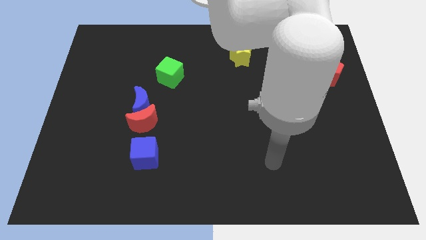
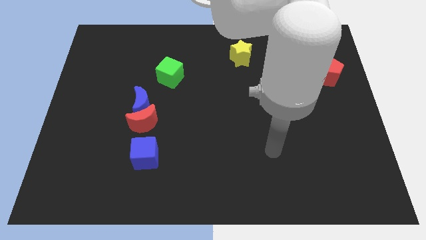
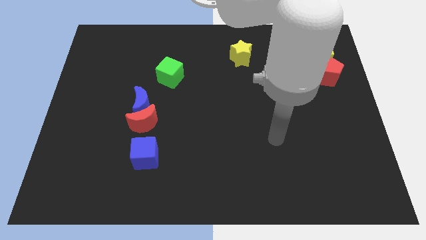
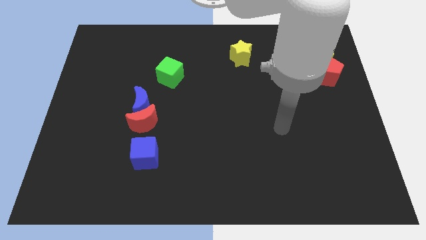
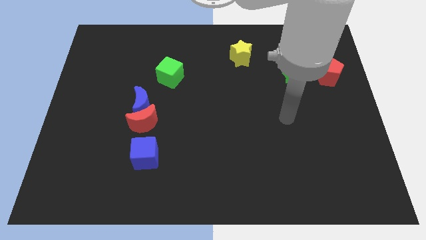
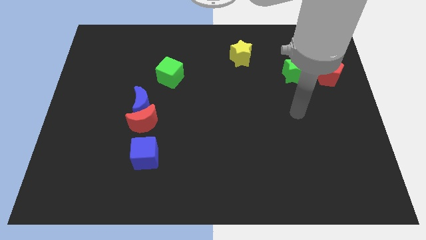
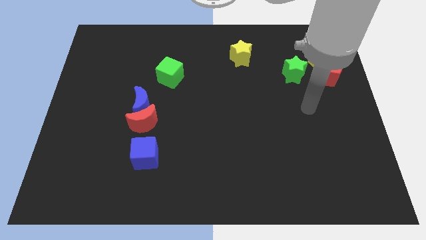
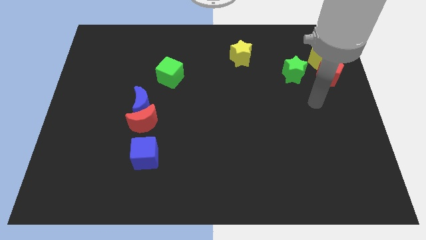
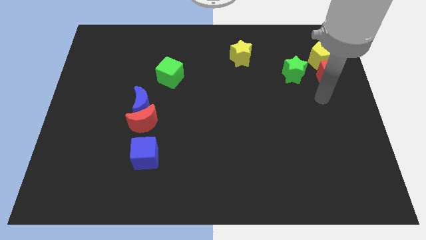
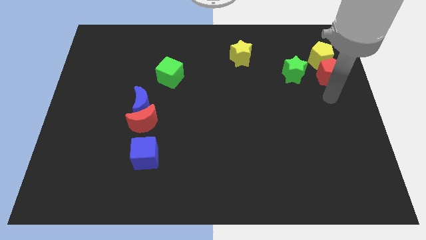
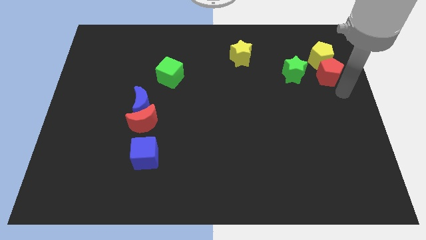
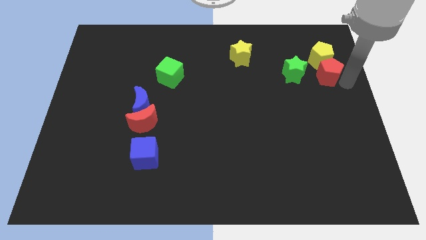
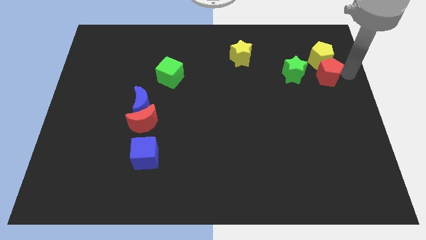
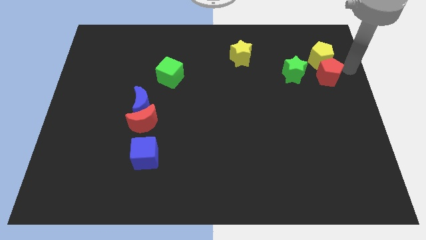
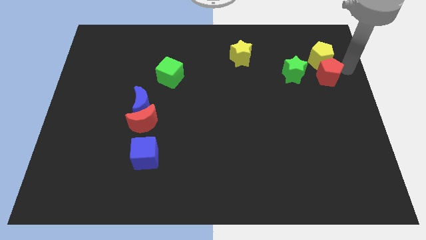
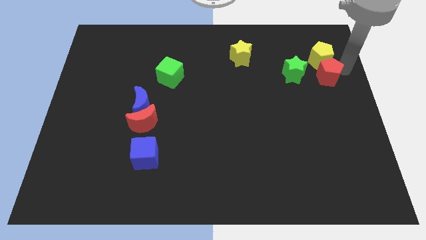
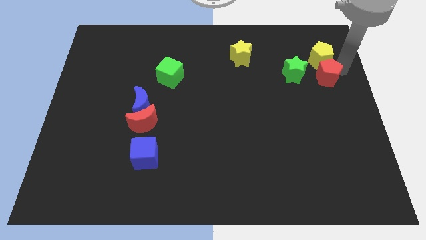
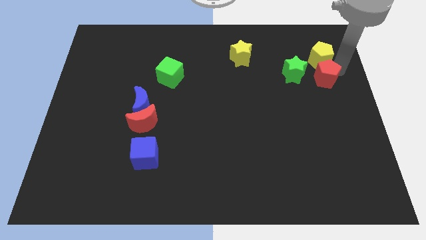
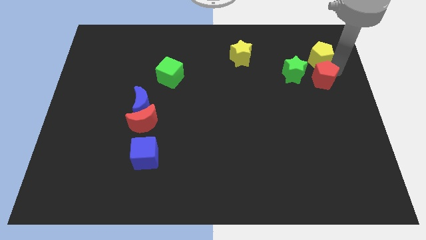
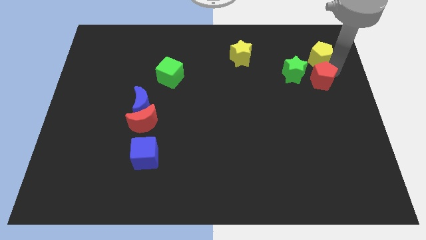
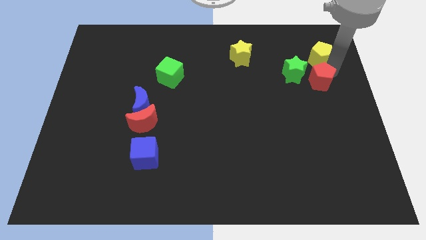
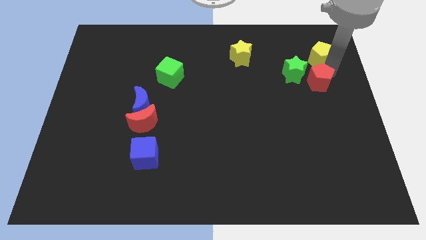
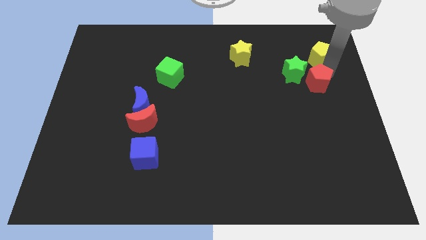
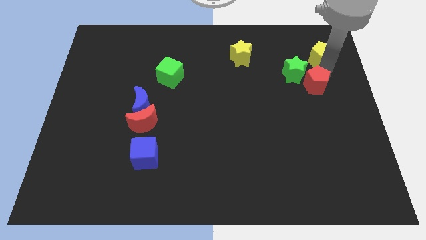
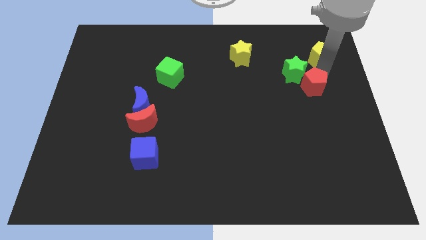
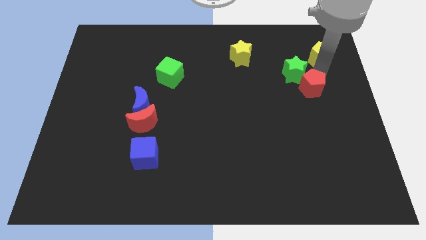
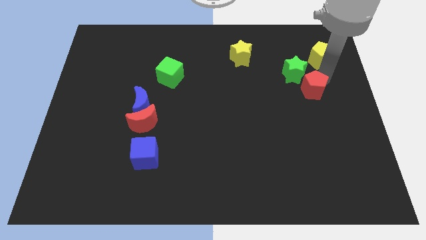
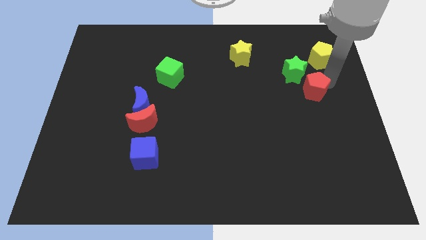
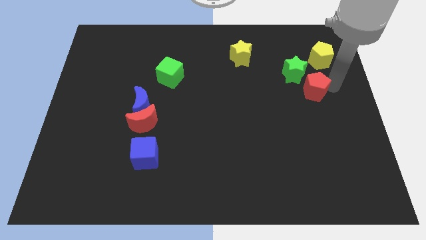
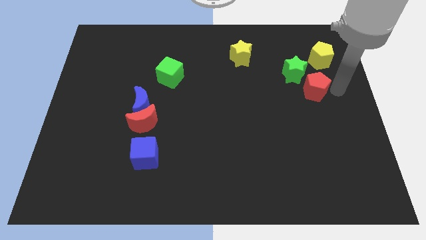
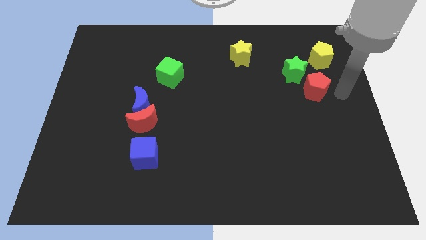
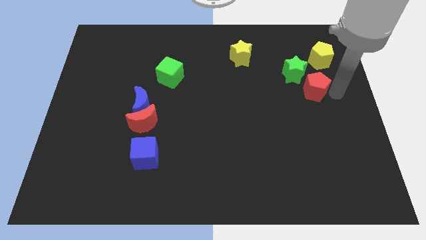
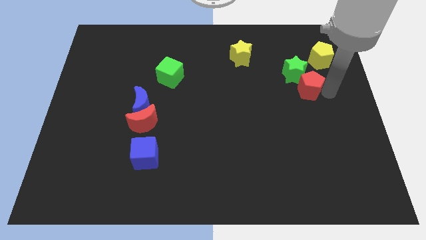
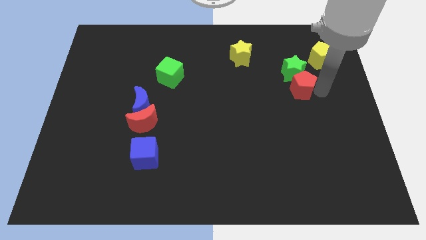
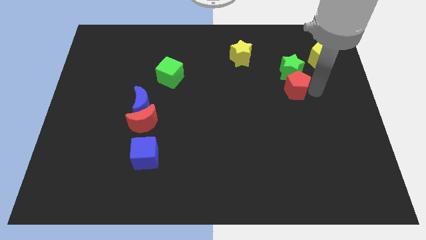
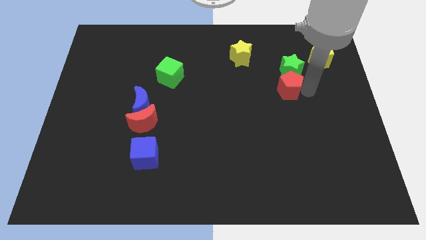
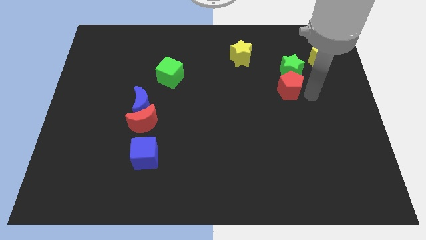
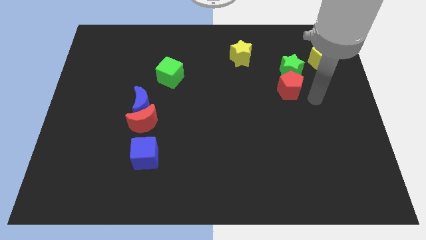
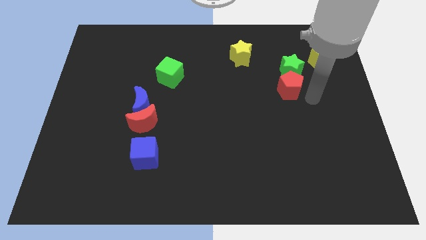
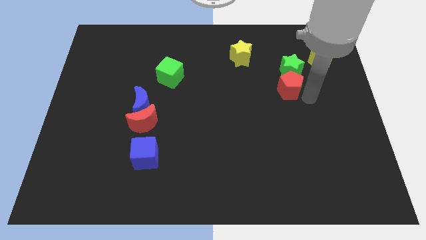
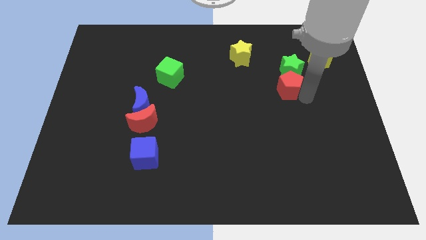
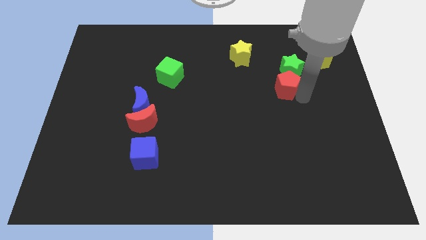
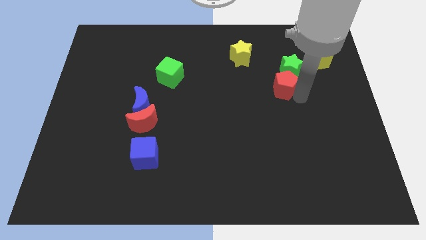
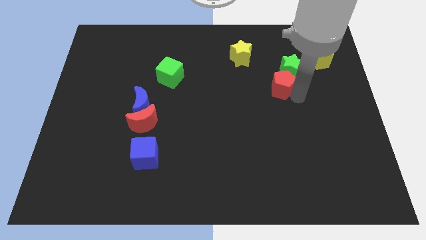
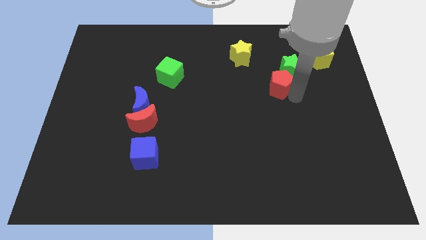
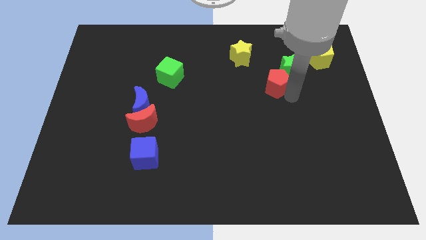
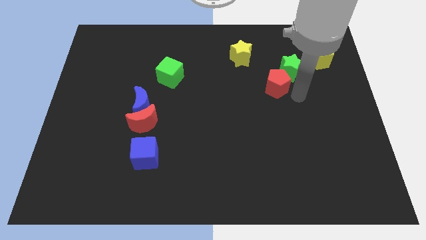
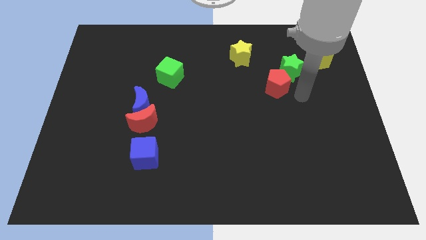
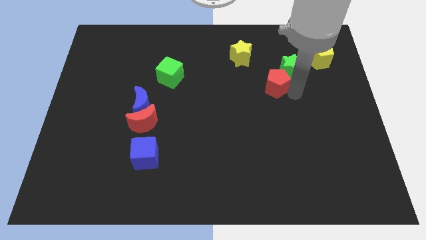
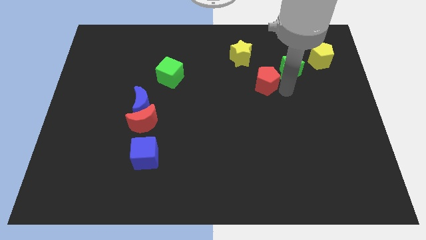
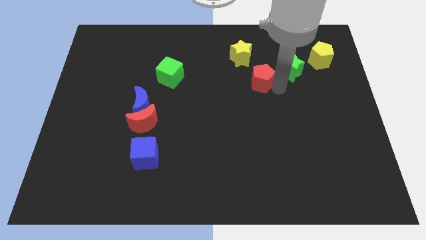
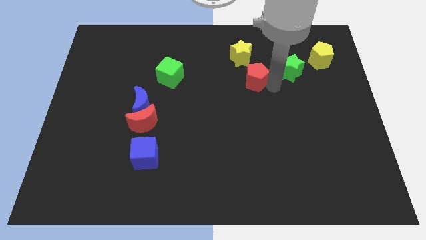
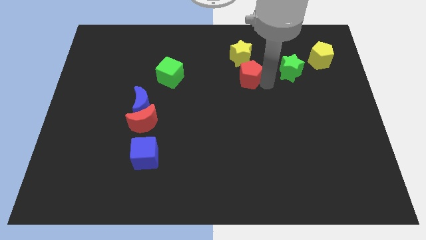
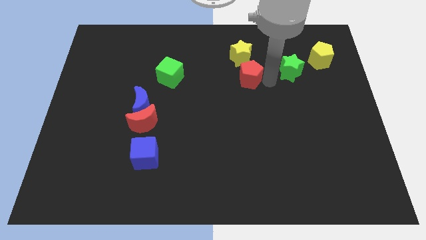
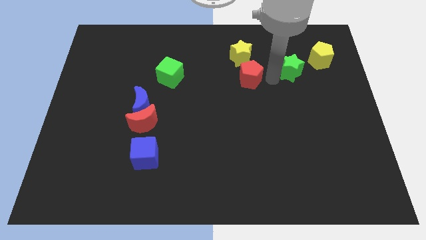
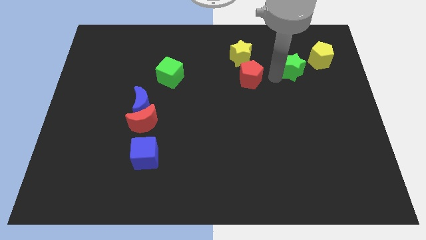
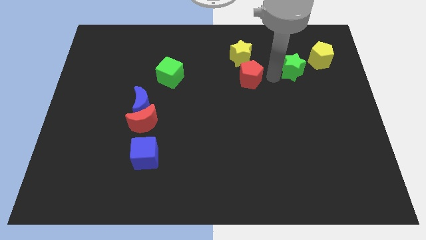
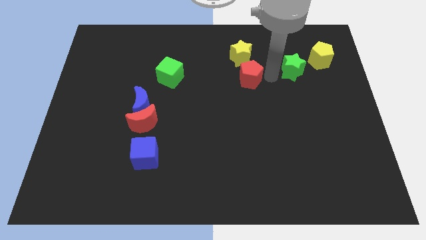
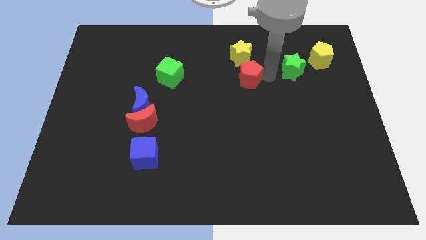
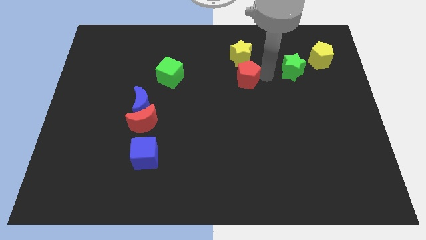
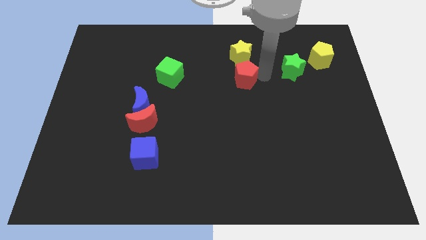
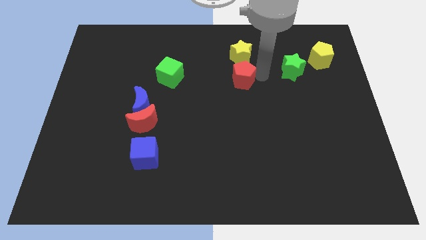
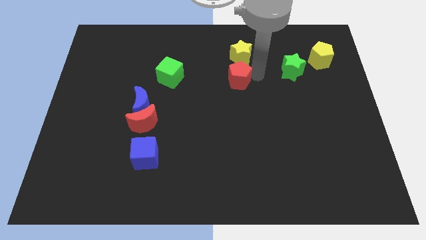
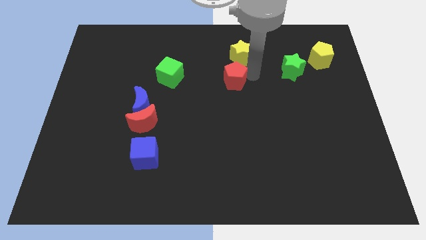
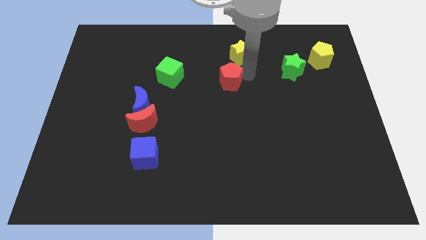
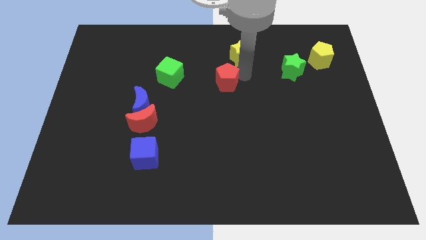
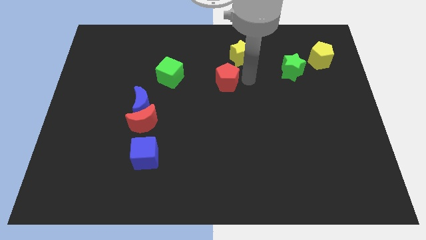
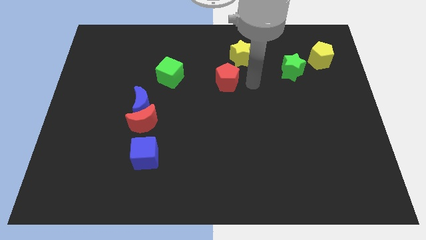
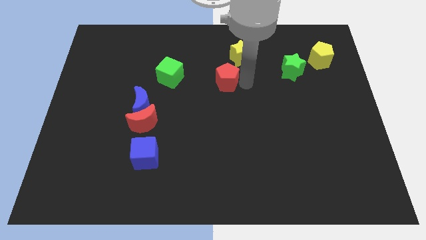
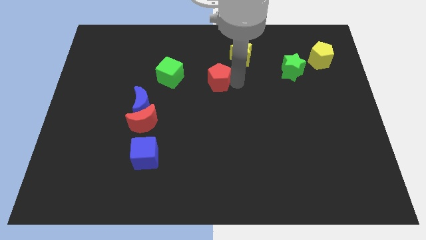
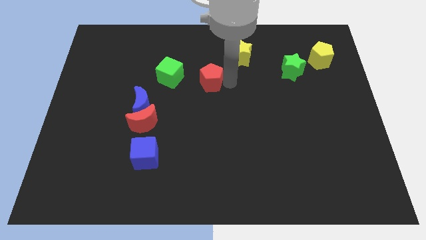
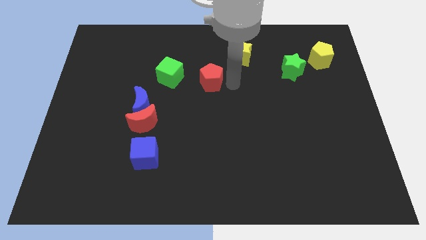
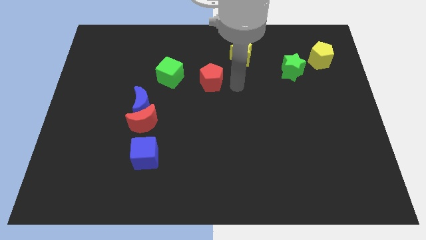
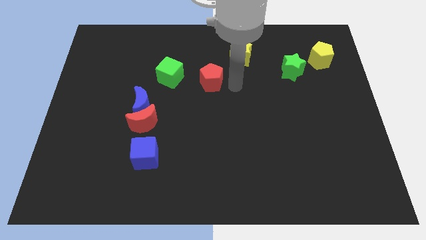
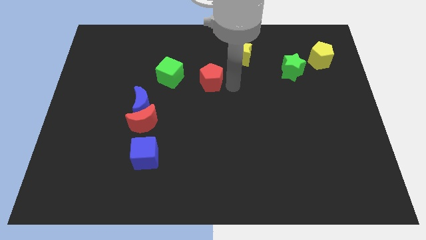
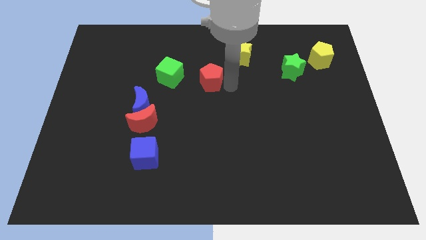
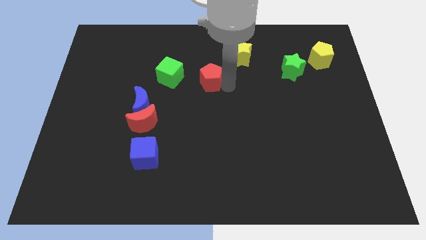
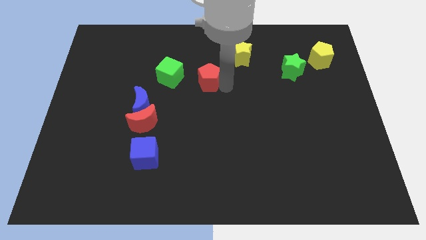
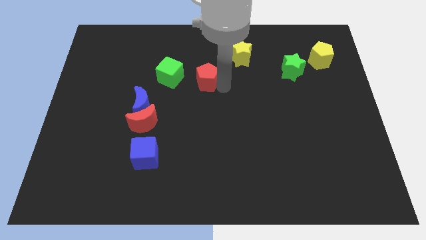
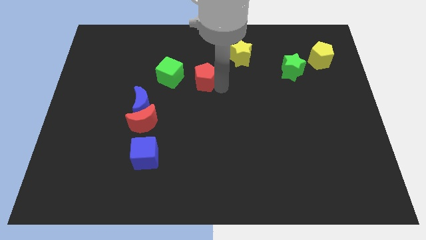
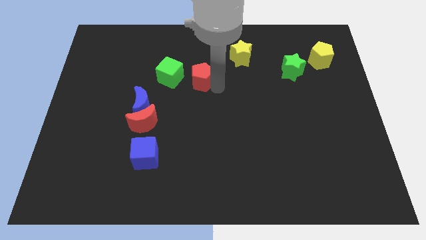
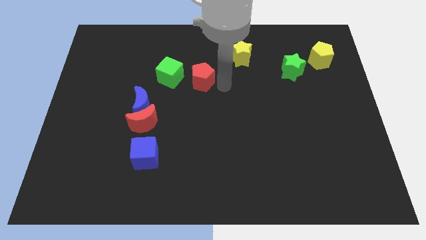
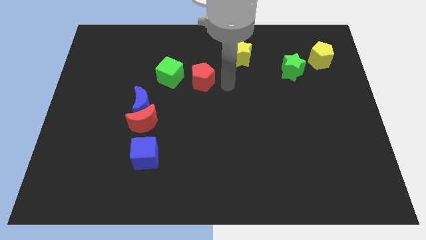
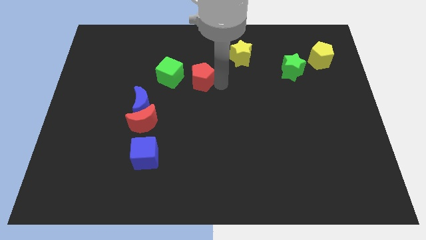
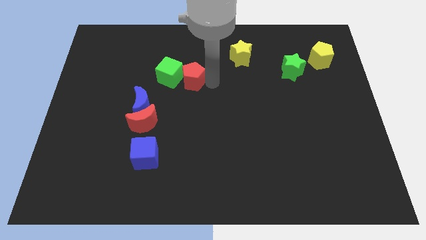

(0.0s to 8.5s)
slide the red pentagon next to the green cube
